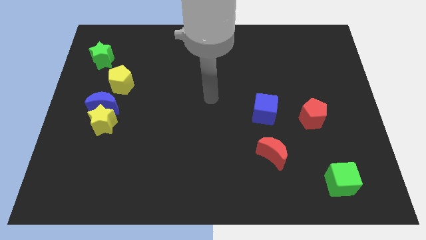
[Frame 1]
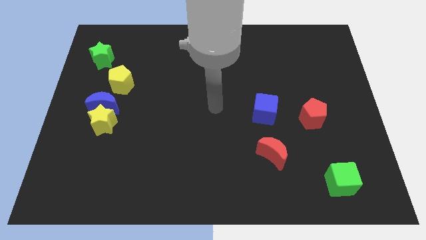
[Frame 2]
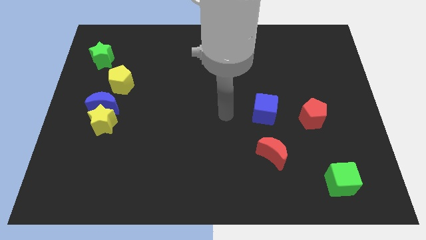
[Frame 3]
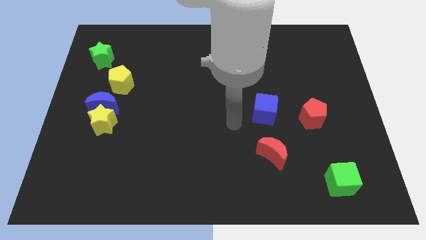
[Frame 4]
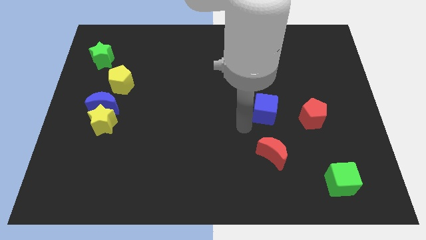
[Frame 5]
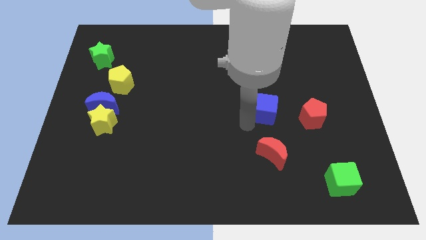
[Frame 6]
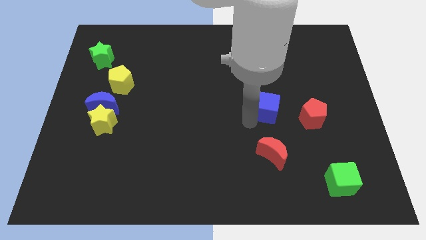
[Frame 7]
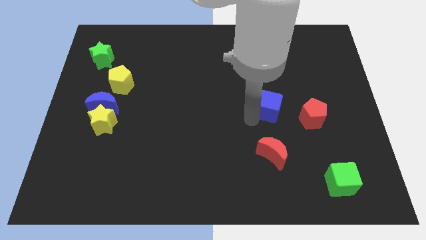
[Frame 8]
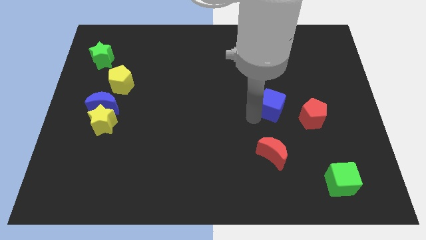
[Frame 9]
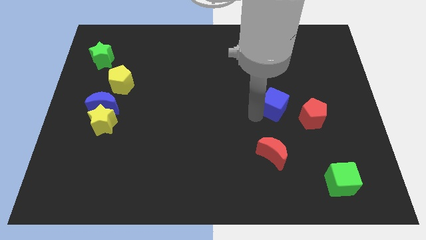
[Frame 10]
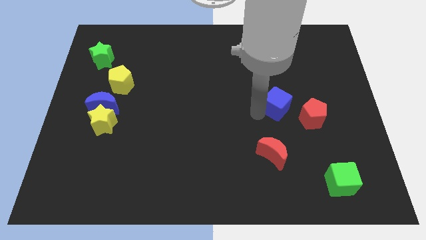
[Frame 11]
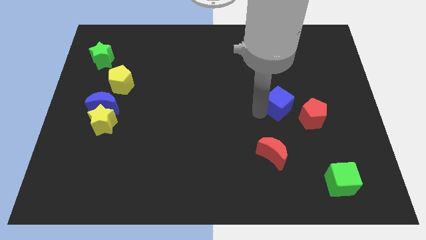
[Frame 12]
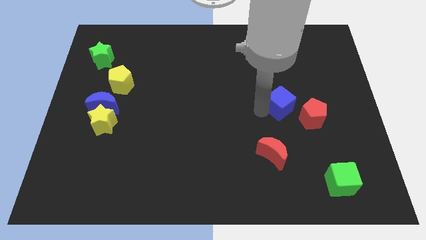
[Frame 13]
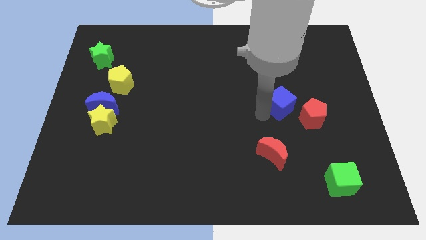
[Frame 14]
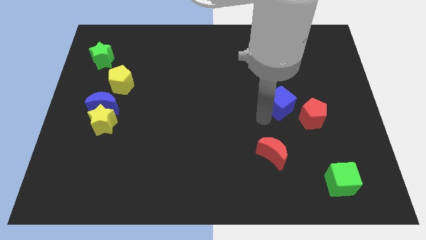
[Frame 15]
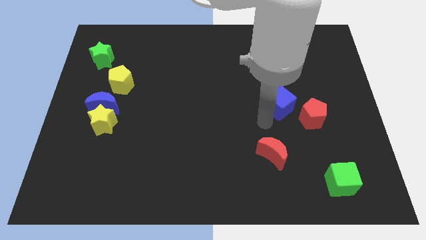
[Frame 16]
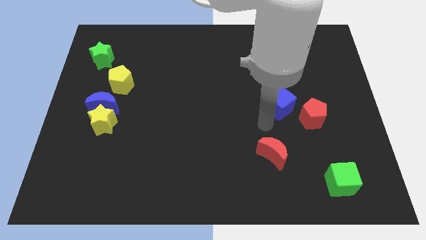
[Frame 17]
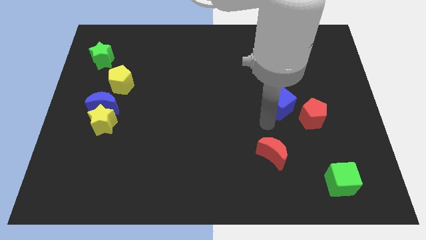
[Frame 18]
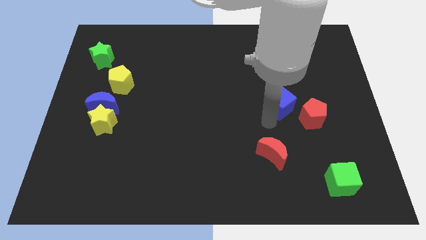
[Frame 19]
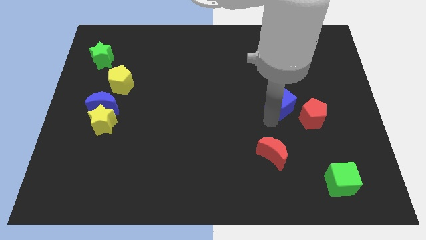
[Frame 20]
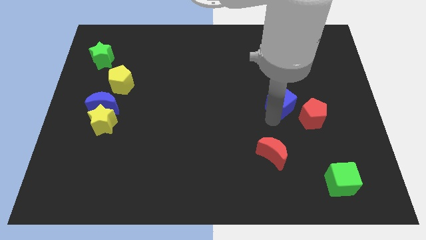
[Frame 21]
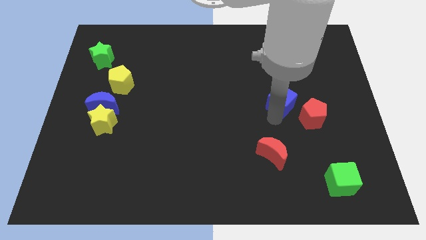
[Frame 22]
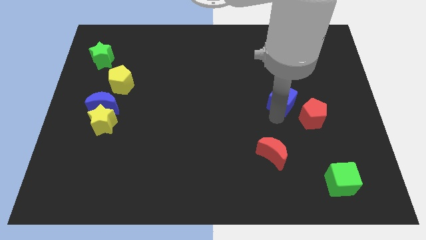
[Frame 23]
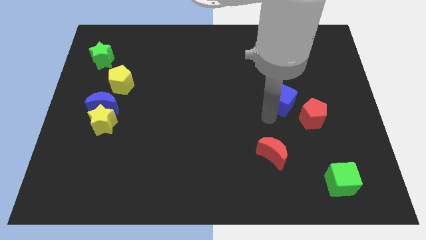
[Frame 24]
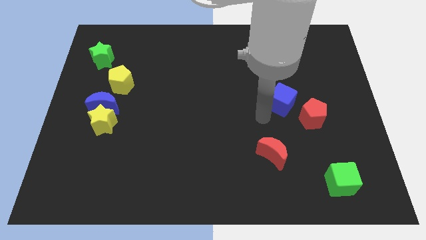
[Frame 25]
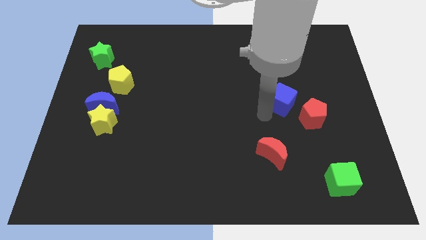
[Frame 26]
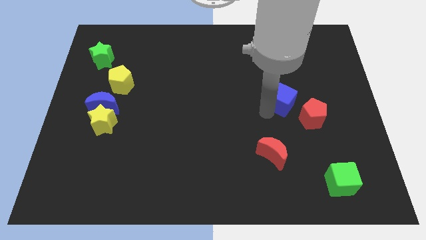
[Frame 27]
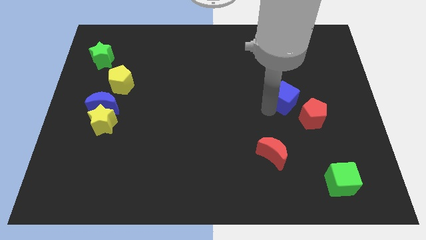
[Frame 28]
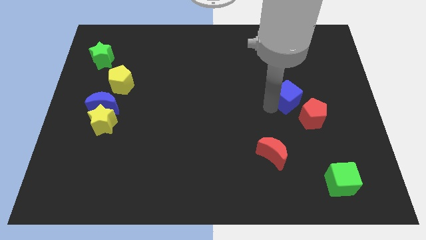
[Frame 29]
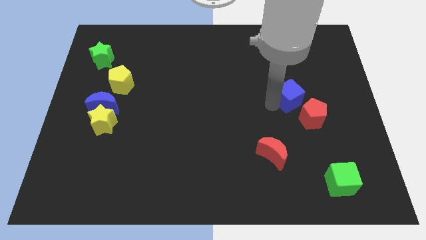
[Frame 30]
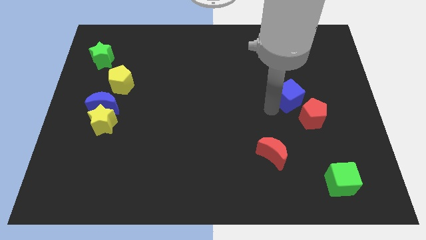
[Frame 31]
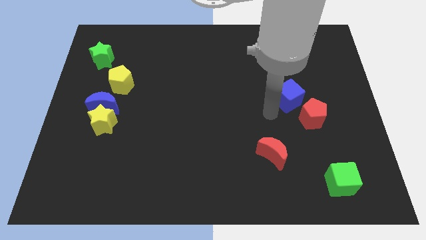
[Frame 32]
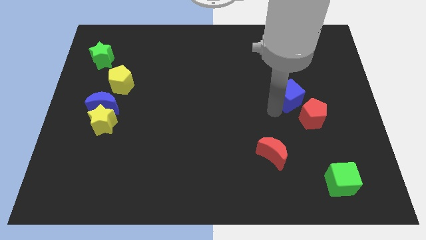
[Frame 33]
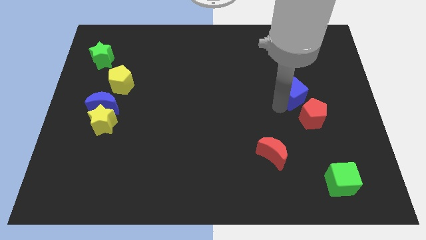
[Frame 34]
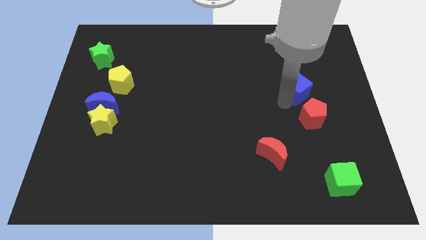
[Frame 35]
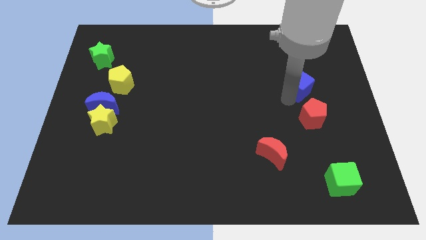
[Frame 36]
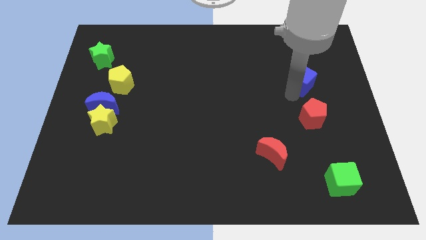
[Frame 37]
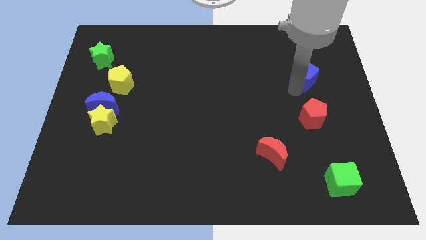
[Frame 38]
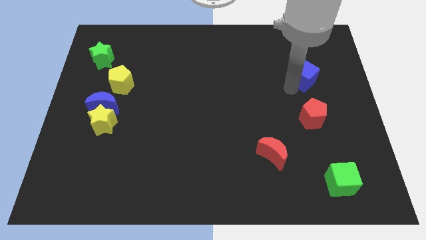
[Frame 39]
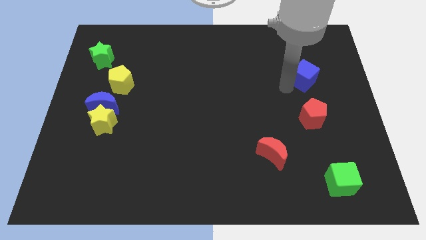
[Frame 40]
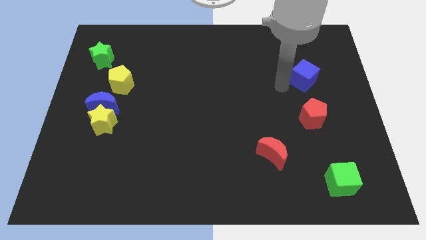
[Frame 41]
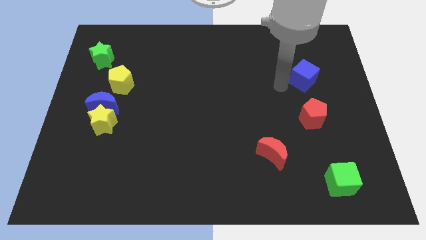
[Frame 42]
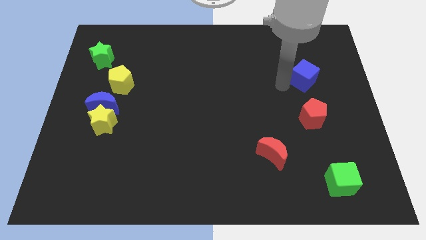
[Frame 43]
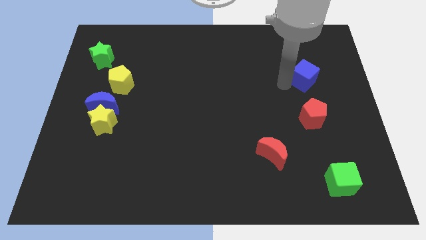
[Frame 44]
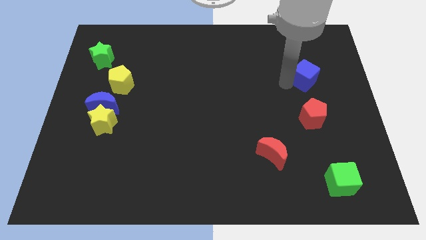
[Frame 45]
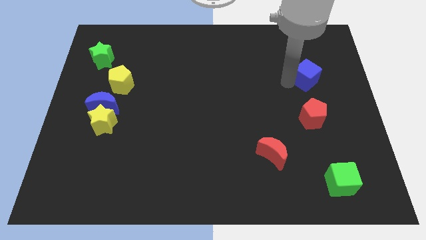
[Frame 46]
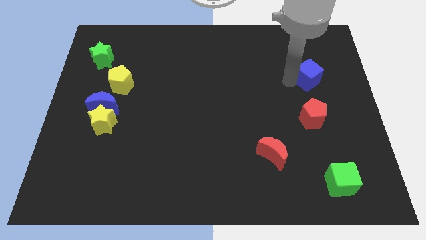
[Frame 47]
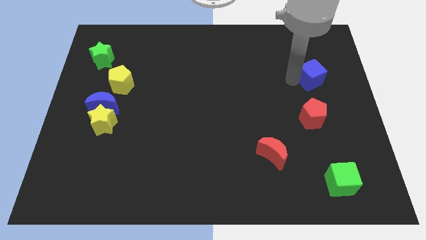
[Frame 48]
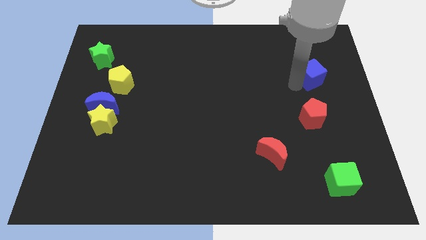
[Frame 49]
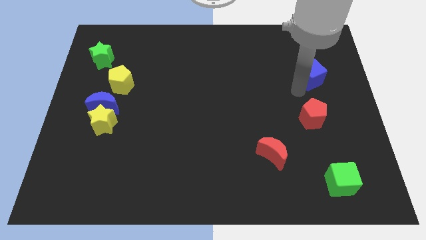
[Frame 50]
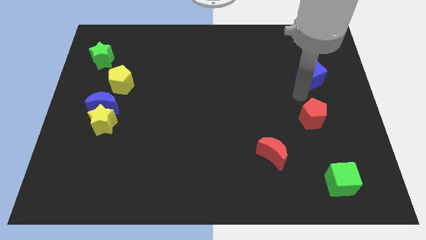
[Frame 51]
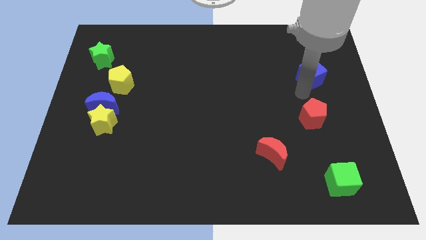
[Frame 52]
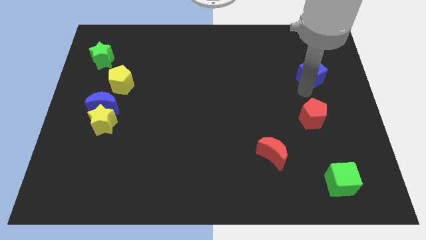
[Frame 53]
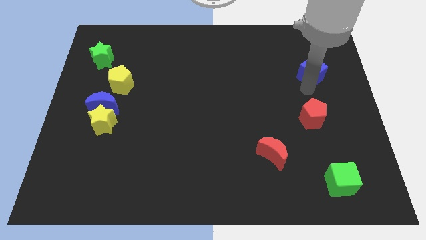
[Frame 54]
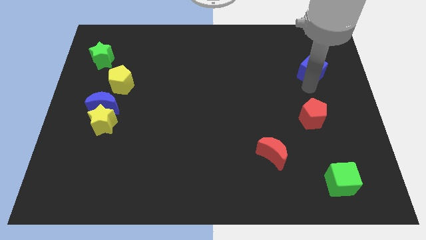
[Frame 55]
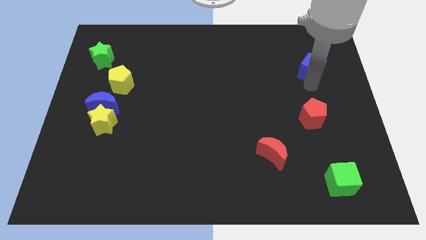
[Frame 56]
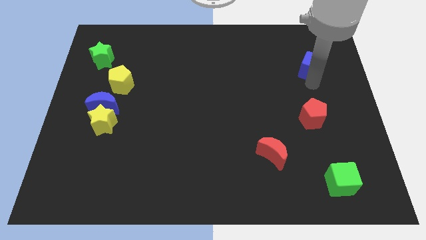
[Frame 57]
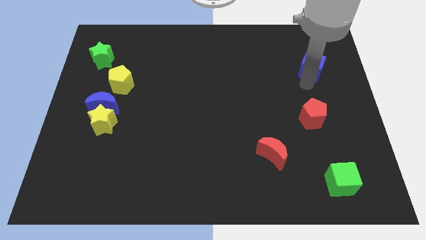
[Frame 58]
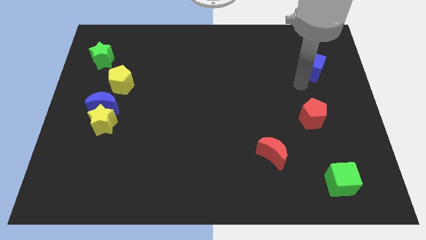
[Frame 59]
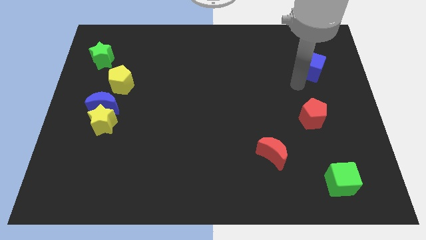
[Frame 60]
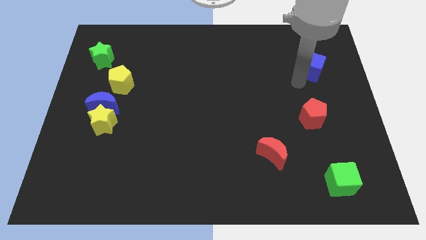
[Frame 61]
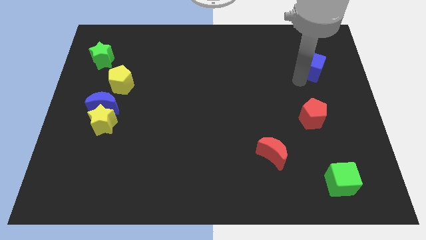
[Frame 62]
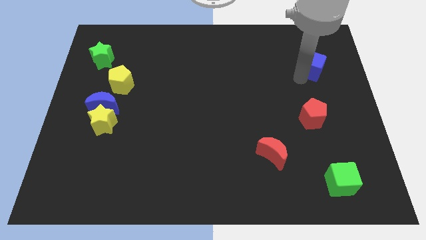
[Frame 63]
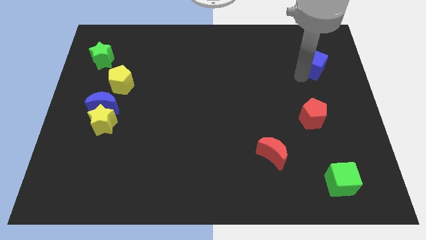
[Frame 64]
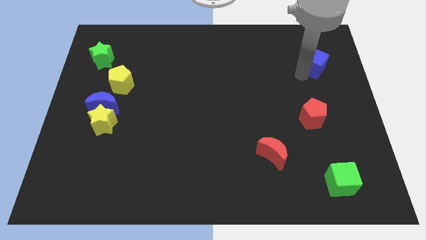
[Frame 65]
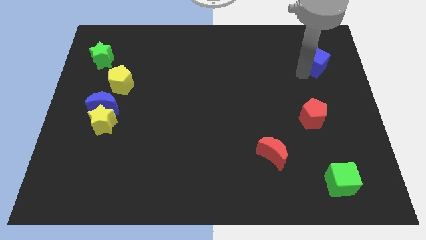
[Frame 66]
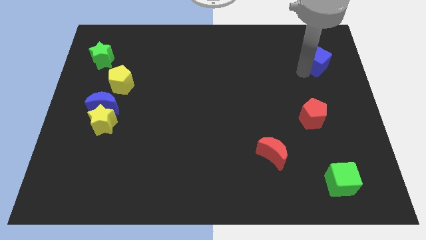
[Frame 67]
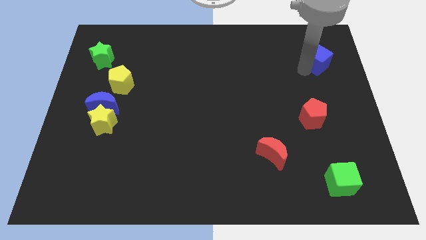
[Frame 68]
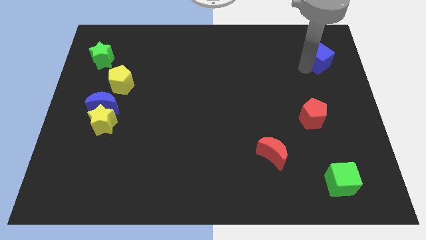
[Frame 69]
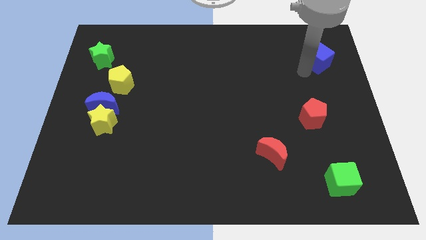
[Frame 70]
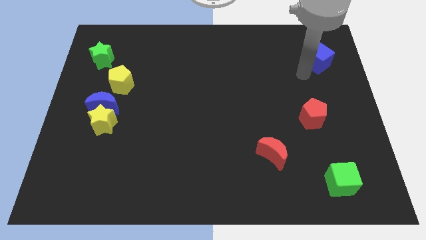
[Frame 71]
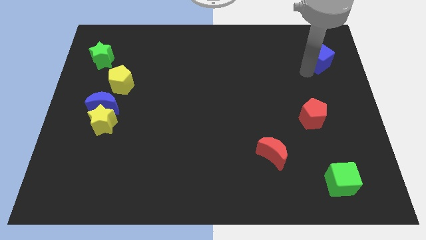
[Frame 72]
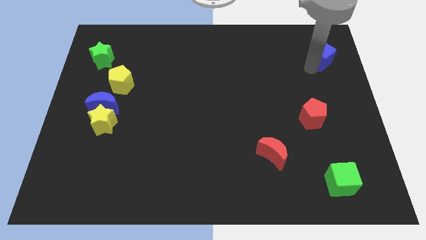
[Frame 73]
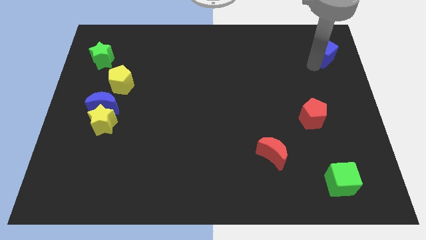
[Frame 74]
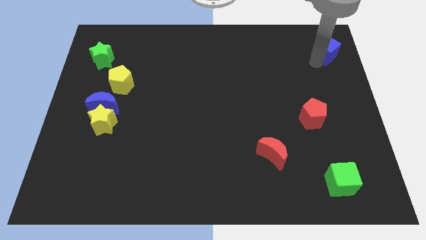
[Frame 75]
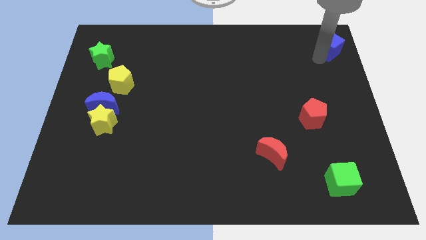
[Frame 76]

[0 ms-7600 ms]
move the blue cube to the top right corner
